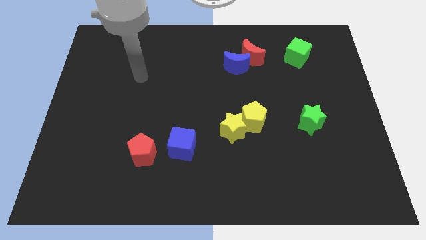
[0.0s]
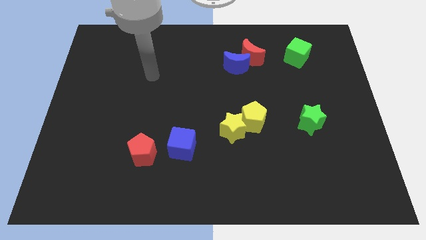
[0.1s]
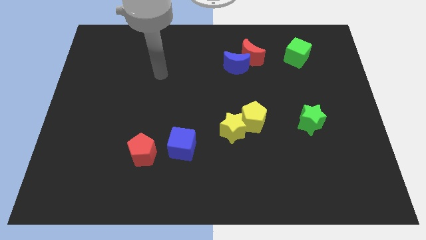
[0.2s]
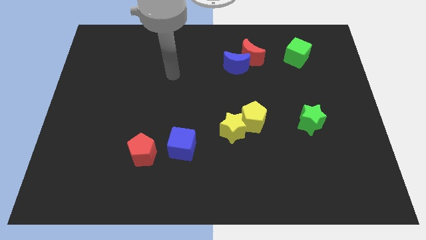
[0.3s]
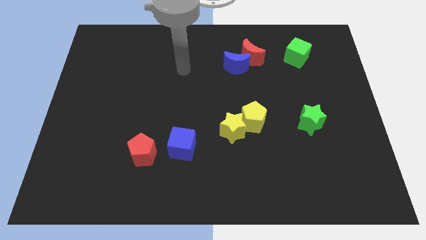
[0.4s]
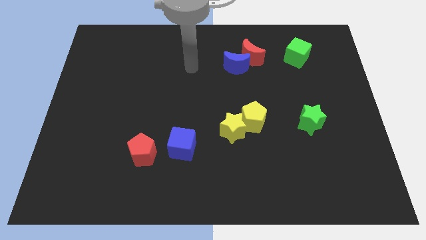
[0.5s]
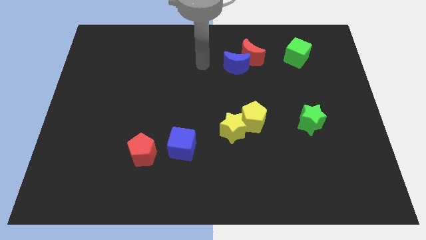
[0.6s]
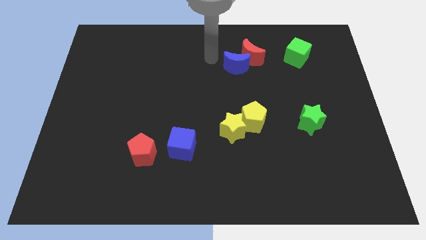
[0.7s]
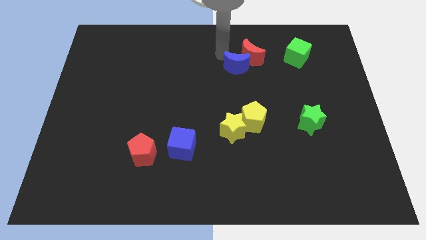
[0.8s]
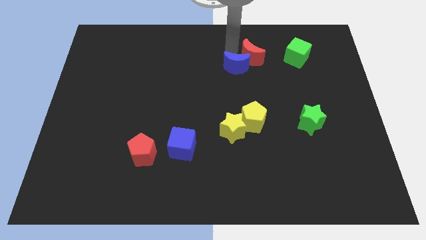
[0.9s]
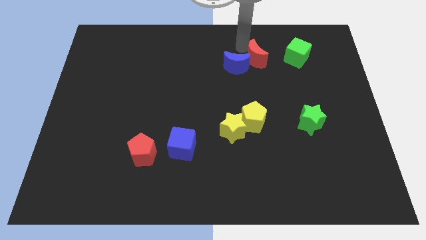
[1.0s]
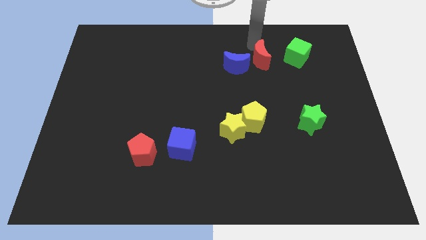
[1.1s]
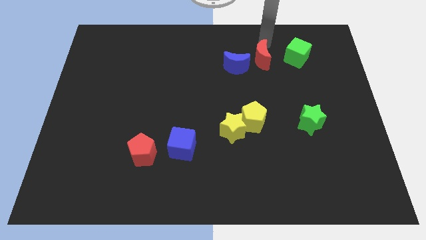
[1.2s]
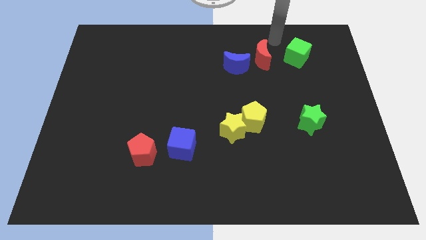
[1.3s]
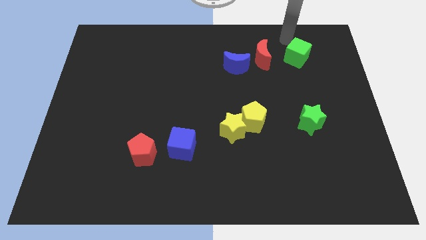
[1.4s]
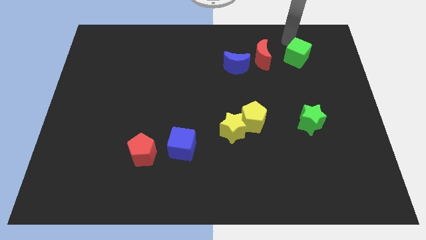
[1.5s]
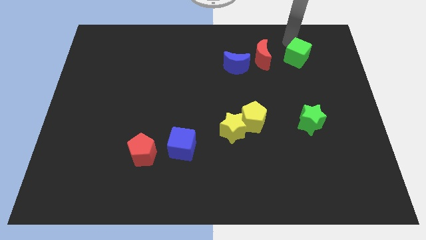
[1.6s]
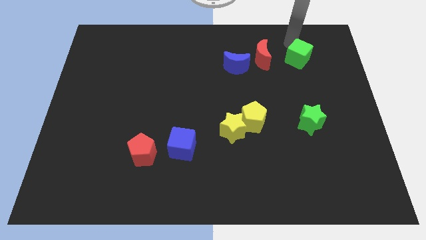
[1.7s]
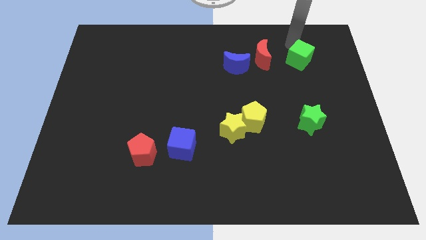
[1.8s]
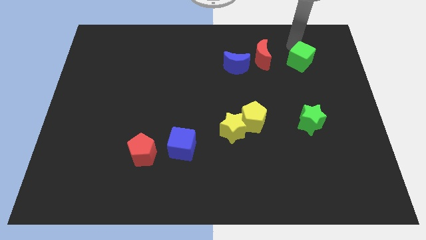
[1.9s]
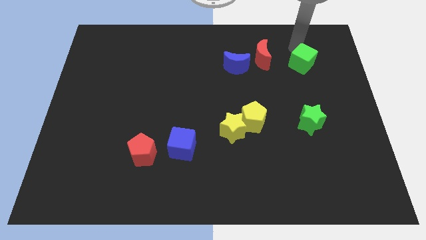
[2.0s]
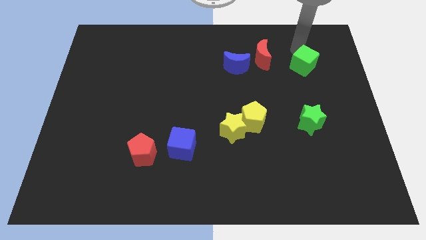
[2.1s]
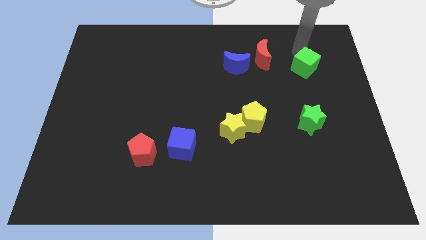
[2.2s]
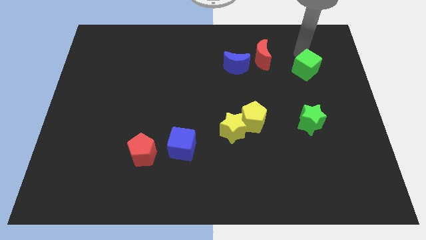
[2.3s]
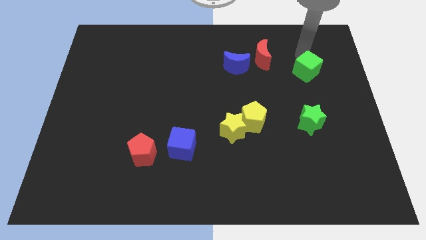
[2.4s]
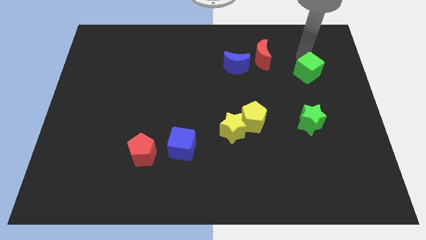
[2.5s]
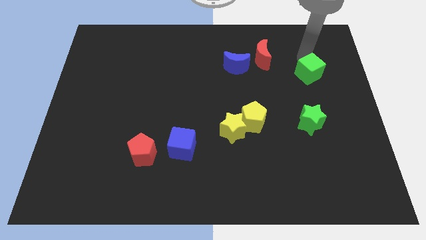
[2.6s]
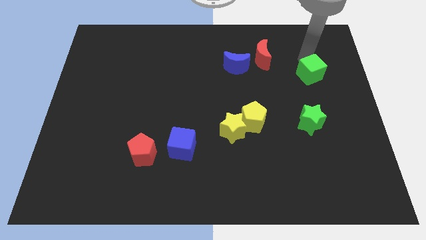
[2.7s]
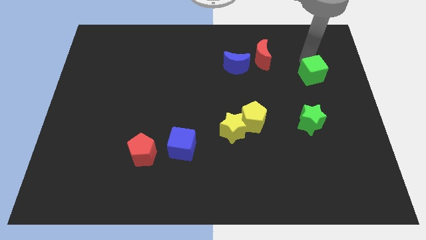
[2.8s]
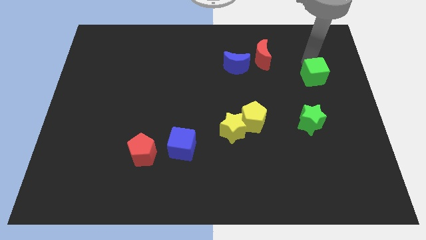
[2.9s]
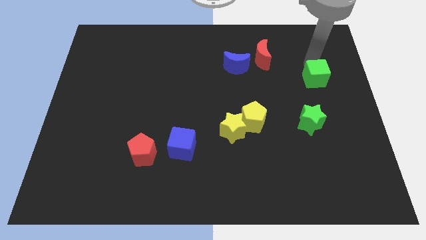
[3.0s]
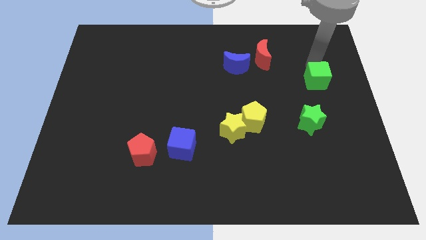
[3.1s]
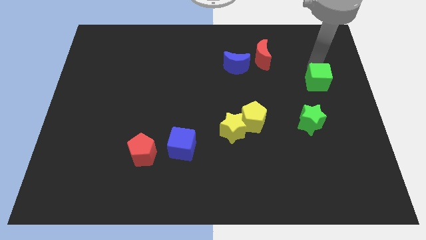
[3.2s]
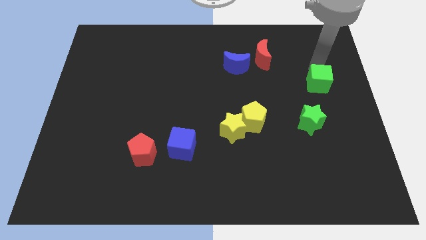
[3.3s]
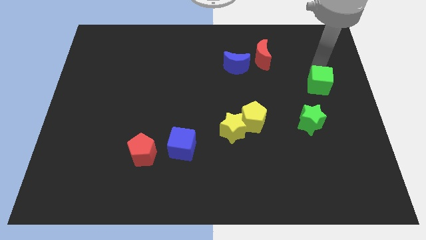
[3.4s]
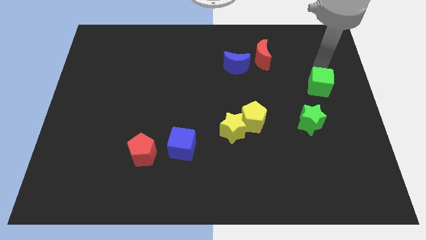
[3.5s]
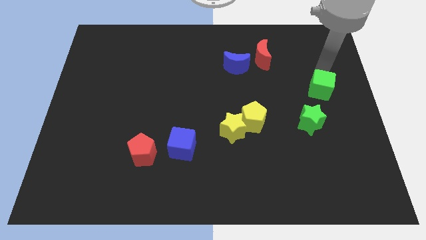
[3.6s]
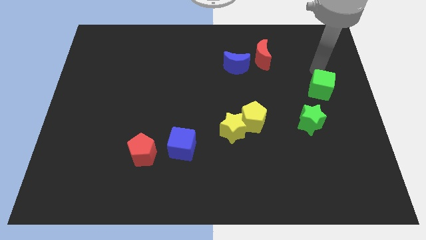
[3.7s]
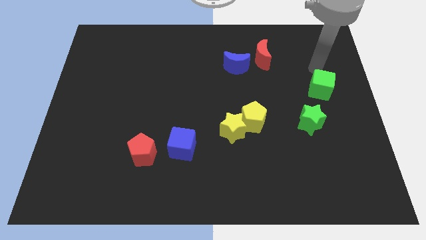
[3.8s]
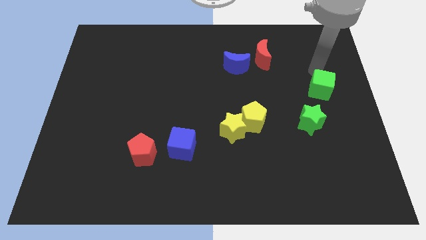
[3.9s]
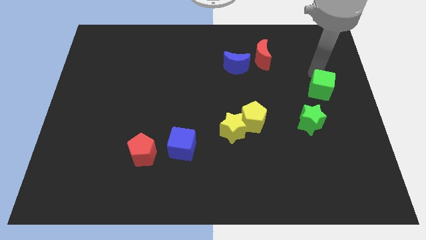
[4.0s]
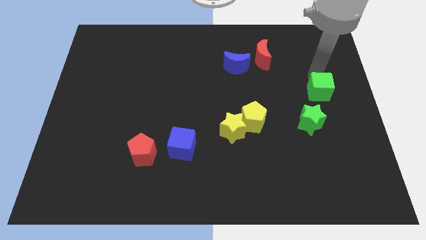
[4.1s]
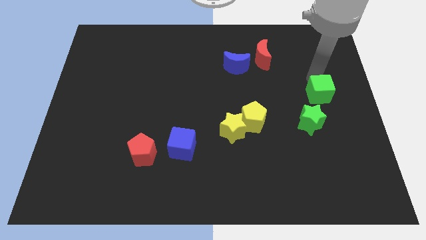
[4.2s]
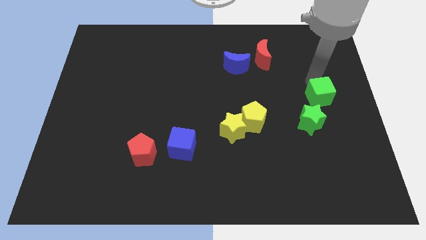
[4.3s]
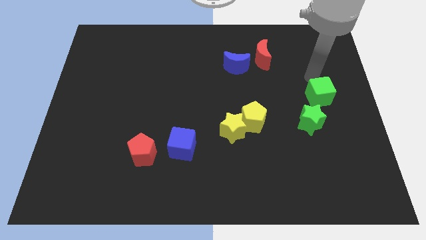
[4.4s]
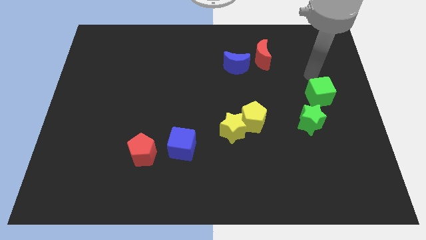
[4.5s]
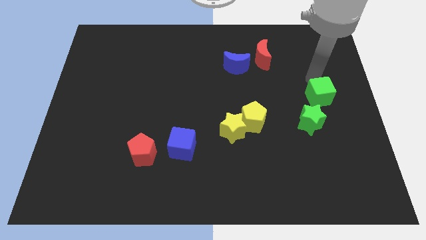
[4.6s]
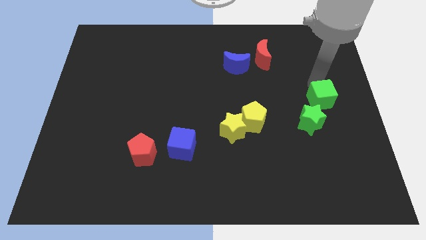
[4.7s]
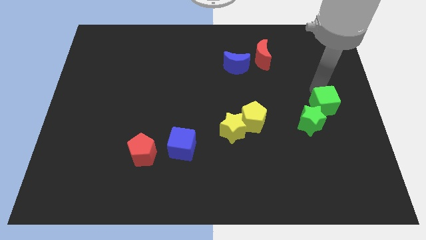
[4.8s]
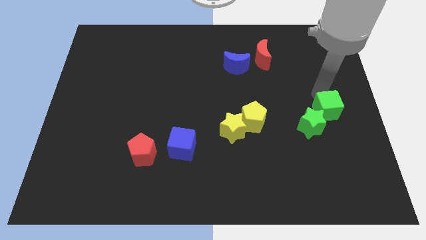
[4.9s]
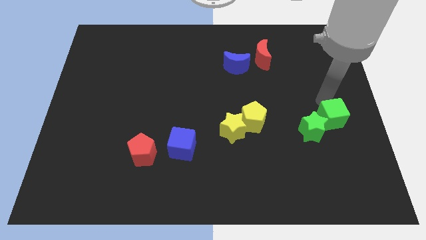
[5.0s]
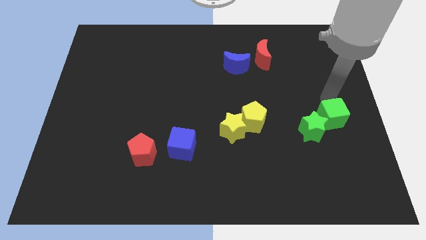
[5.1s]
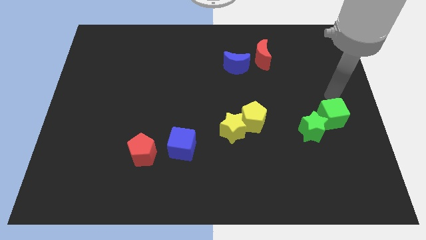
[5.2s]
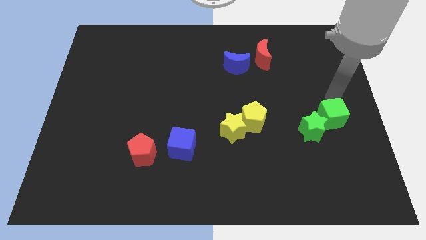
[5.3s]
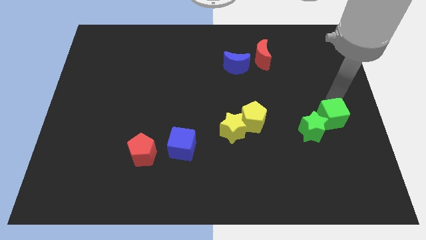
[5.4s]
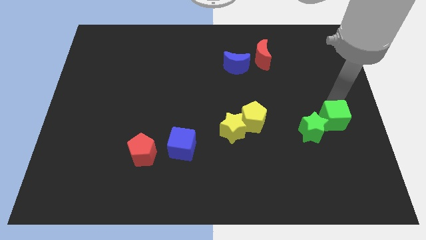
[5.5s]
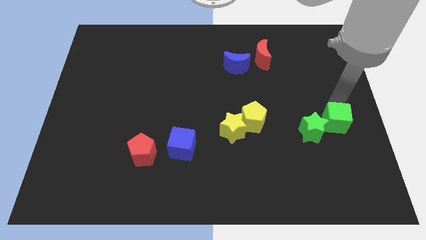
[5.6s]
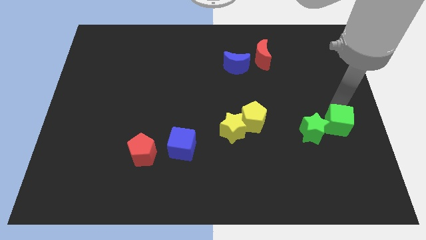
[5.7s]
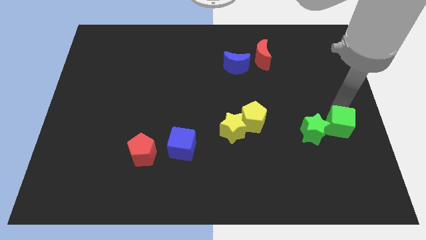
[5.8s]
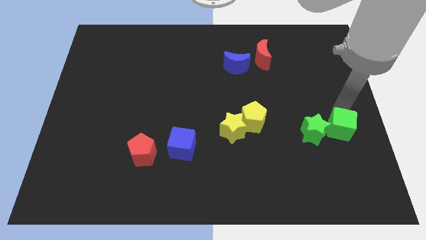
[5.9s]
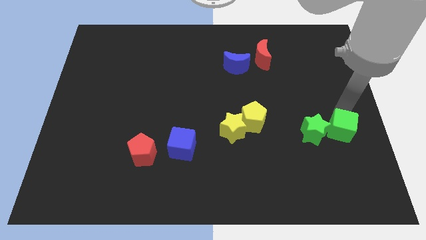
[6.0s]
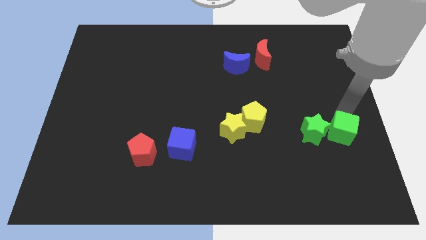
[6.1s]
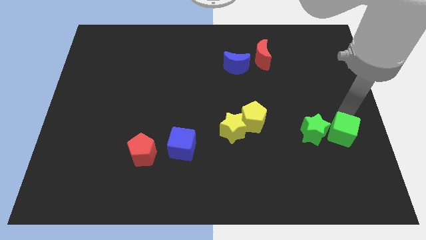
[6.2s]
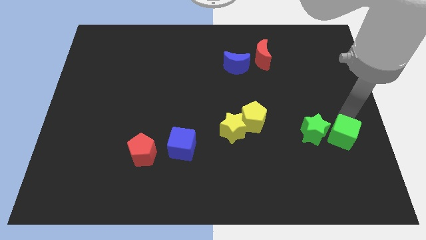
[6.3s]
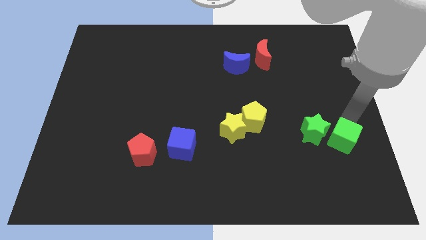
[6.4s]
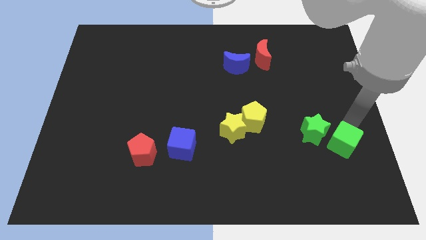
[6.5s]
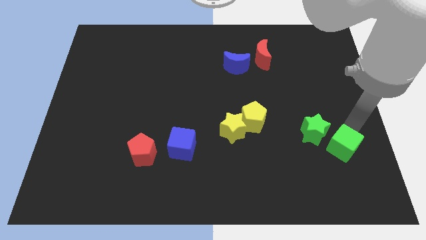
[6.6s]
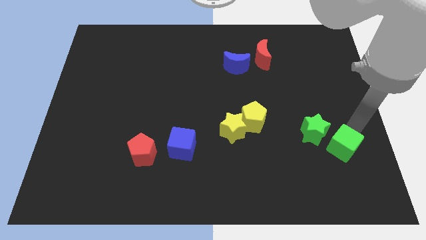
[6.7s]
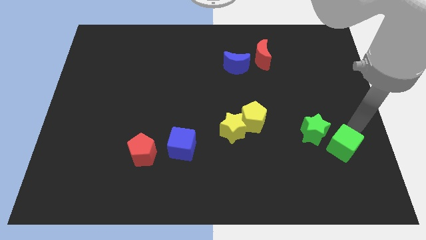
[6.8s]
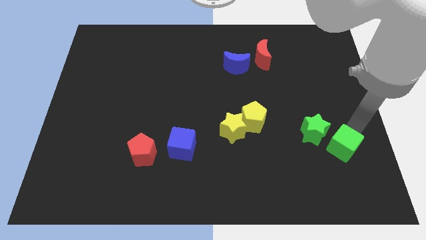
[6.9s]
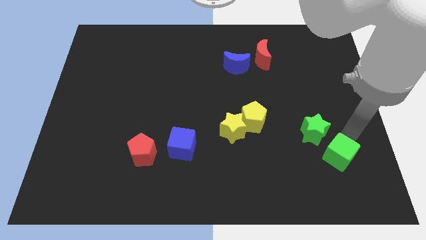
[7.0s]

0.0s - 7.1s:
slide the green cube below the green star
